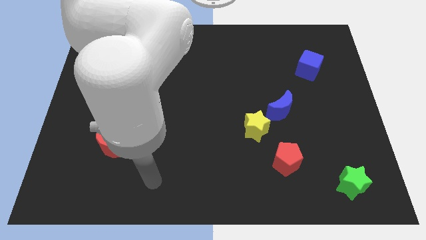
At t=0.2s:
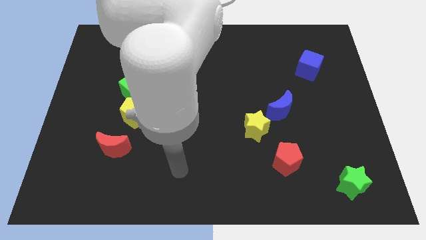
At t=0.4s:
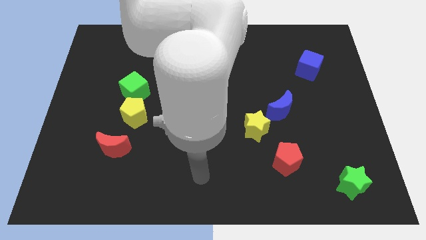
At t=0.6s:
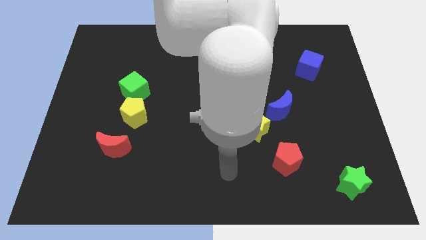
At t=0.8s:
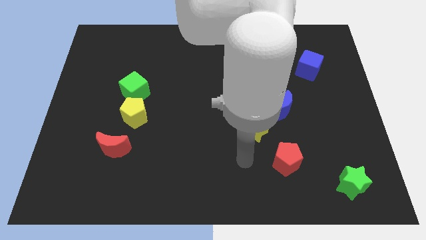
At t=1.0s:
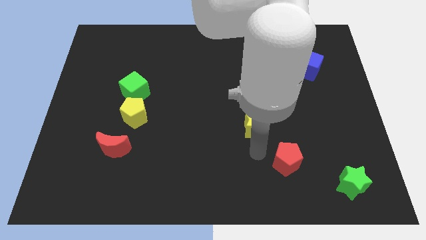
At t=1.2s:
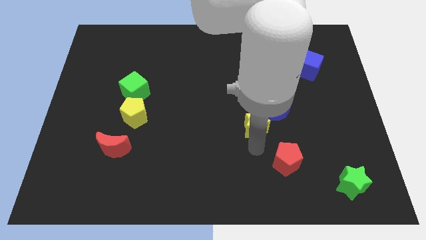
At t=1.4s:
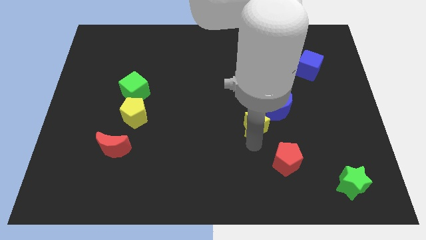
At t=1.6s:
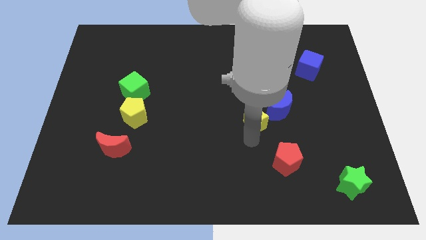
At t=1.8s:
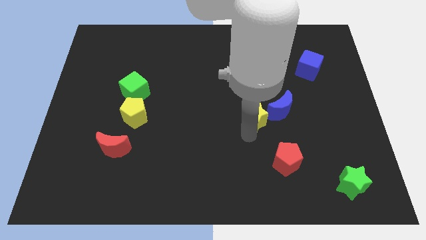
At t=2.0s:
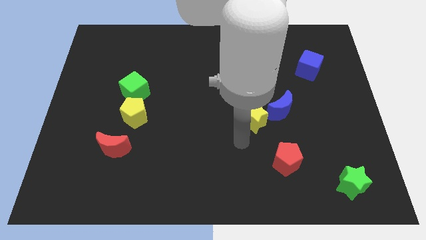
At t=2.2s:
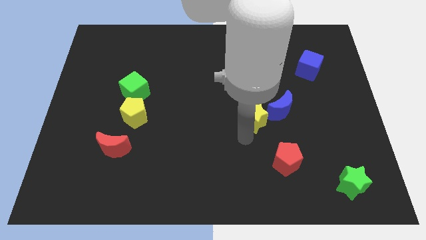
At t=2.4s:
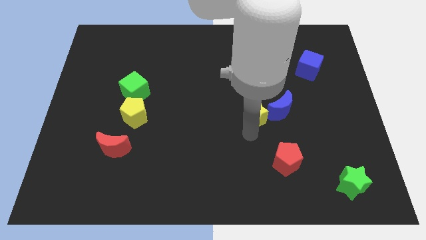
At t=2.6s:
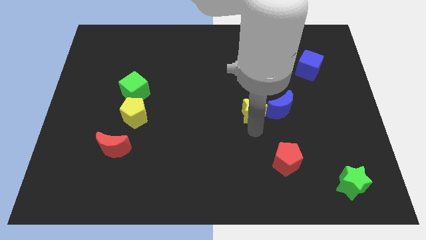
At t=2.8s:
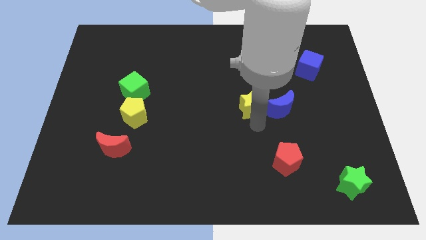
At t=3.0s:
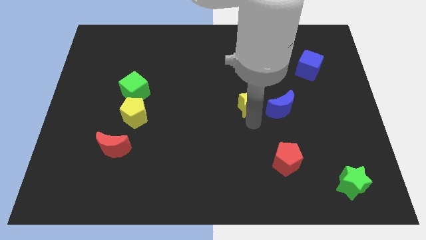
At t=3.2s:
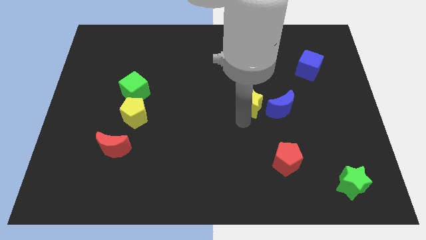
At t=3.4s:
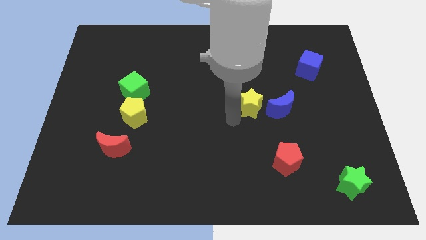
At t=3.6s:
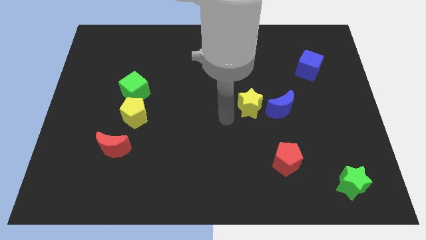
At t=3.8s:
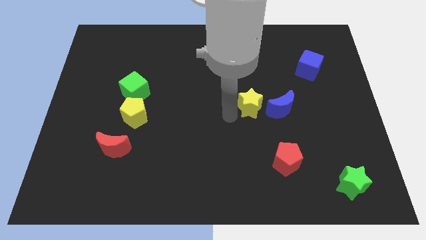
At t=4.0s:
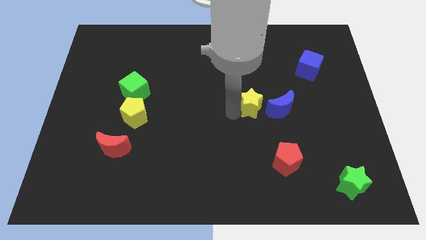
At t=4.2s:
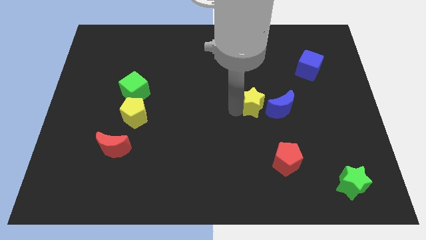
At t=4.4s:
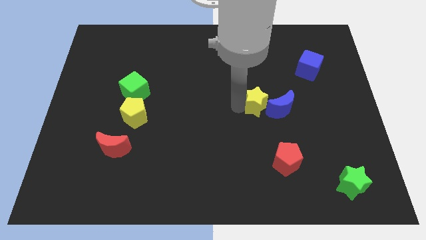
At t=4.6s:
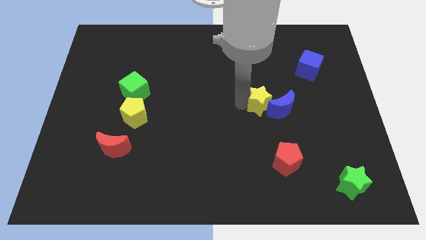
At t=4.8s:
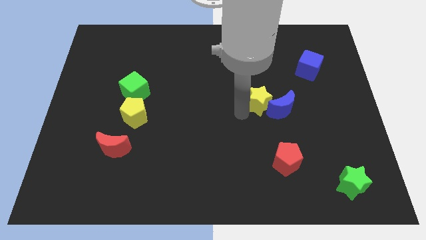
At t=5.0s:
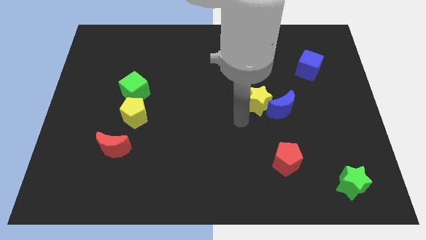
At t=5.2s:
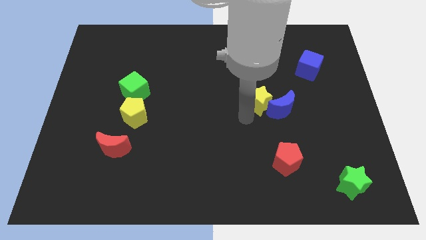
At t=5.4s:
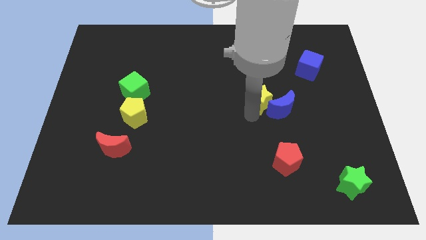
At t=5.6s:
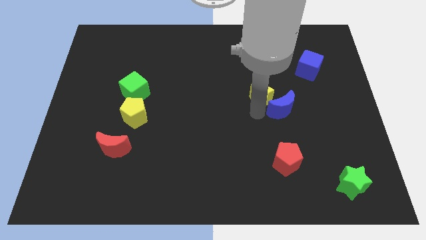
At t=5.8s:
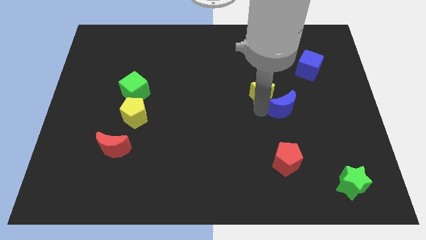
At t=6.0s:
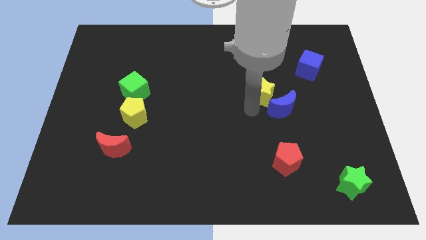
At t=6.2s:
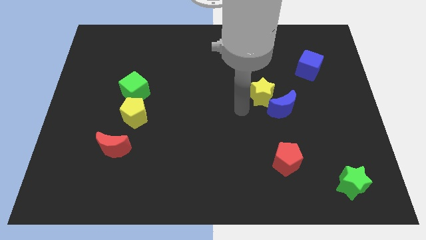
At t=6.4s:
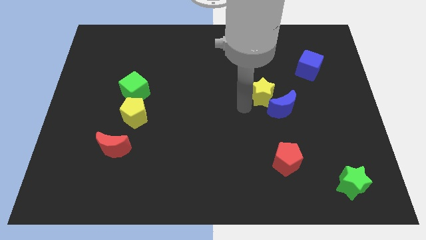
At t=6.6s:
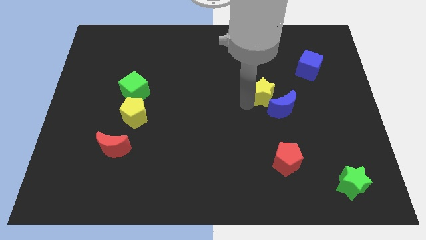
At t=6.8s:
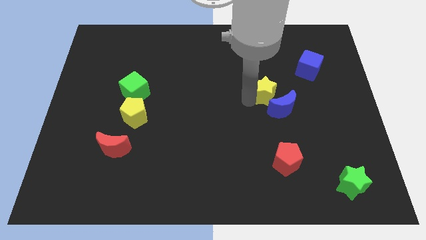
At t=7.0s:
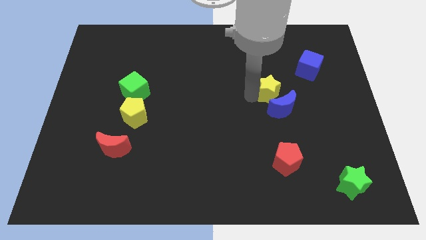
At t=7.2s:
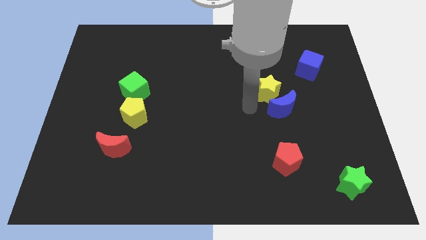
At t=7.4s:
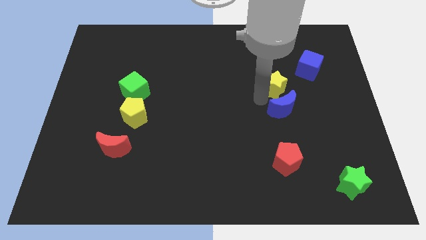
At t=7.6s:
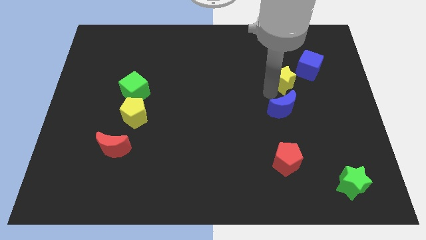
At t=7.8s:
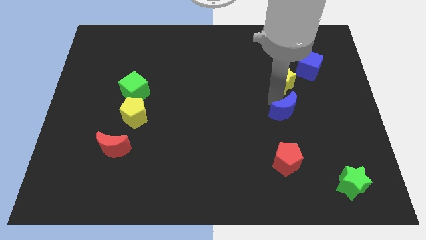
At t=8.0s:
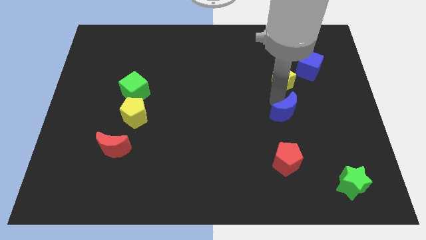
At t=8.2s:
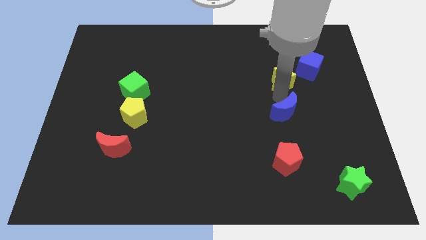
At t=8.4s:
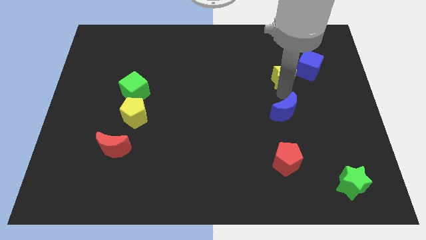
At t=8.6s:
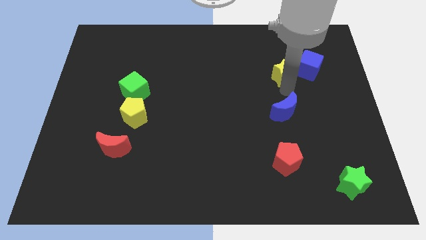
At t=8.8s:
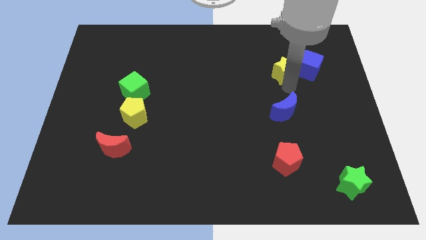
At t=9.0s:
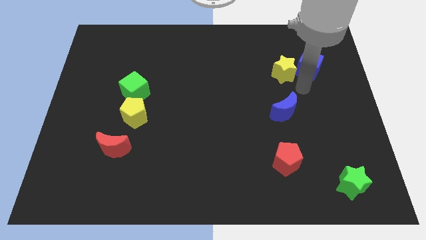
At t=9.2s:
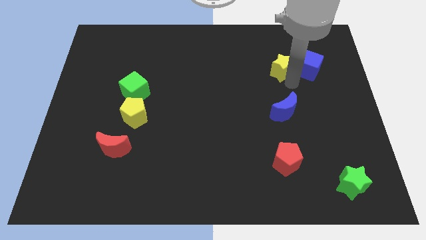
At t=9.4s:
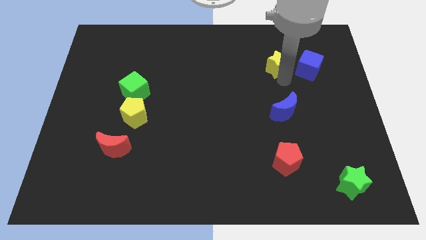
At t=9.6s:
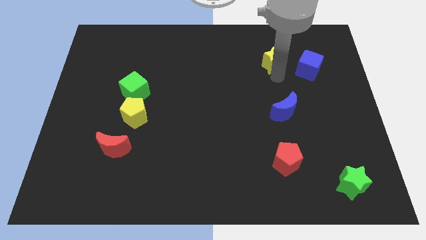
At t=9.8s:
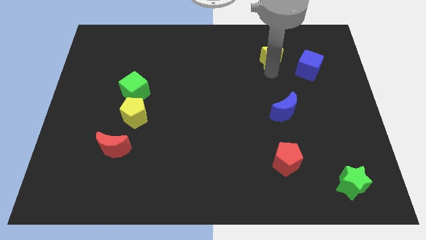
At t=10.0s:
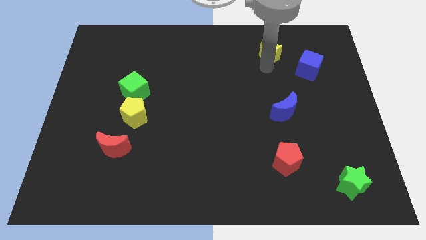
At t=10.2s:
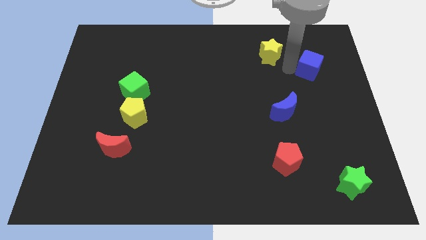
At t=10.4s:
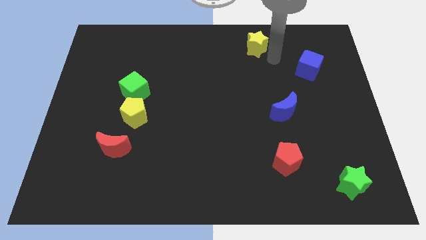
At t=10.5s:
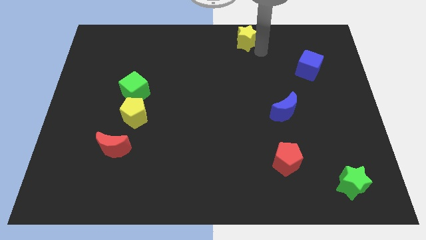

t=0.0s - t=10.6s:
push the yellow star to the towards your base

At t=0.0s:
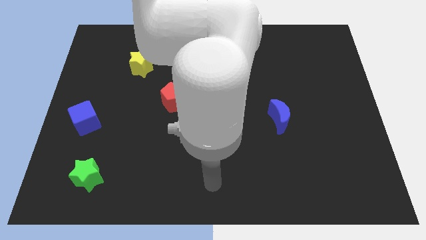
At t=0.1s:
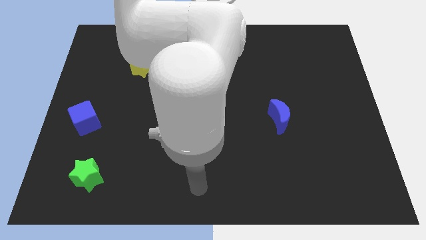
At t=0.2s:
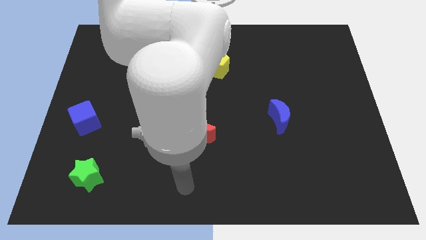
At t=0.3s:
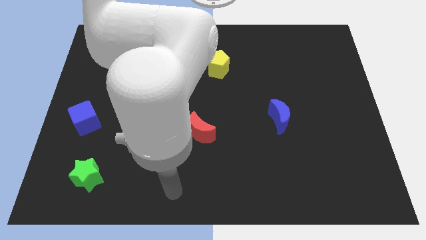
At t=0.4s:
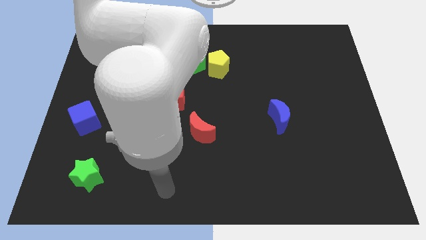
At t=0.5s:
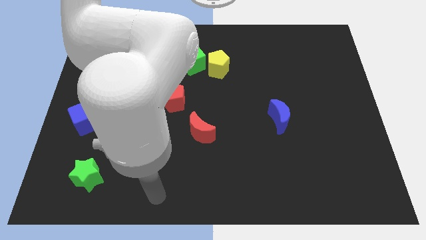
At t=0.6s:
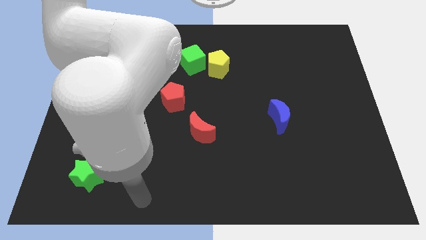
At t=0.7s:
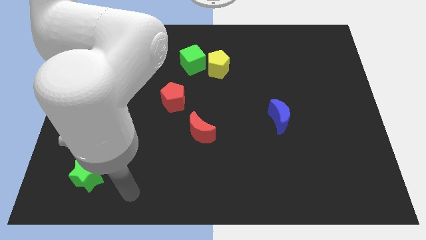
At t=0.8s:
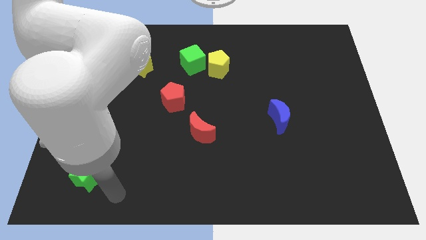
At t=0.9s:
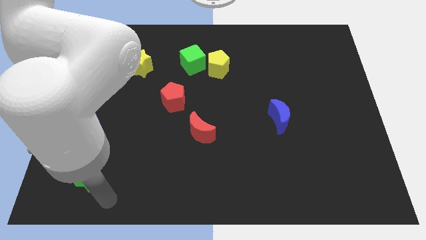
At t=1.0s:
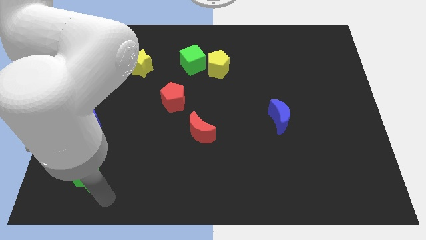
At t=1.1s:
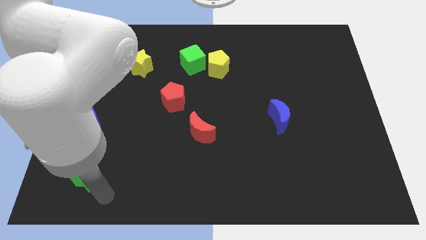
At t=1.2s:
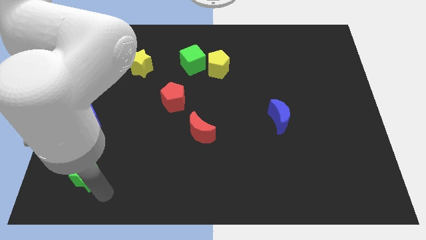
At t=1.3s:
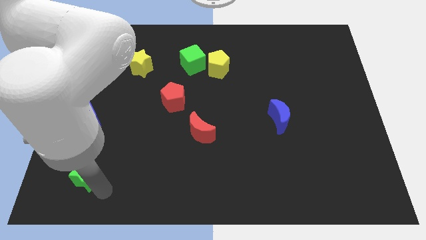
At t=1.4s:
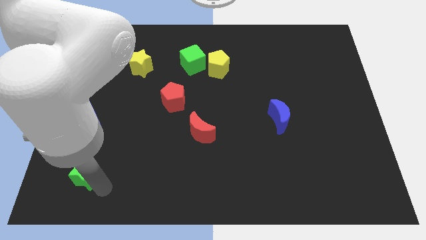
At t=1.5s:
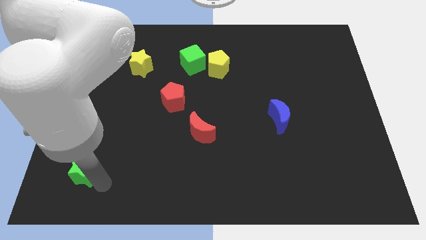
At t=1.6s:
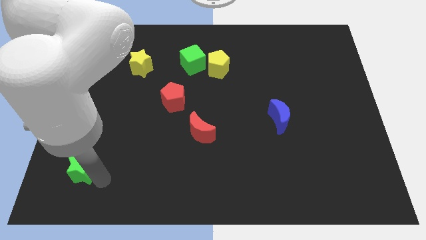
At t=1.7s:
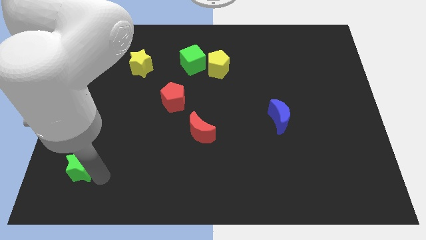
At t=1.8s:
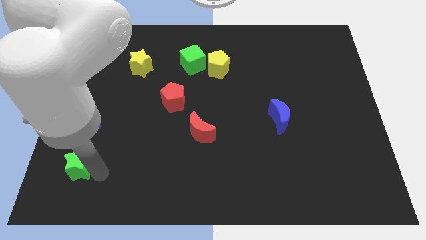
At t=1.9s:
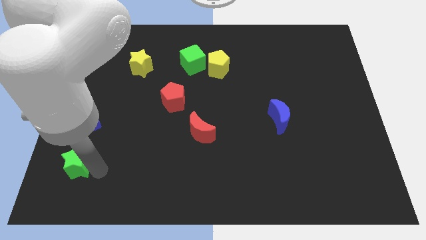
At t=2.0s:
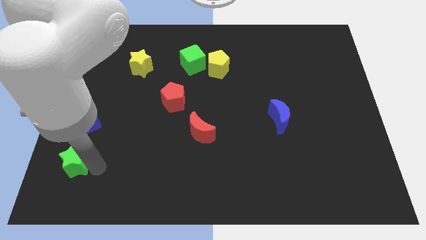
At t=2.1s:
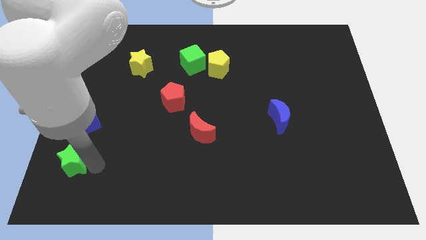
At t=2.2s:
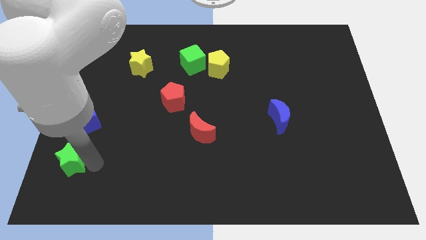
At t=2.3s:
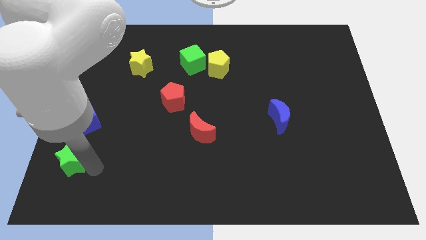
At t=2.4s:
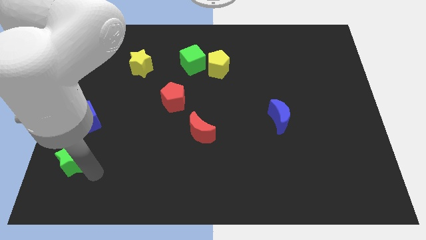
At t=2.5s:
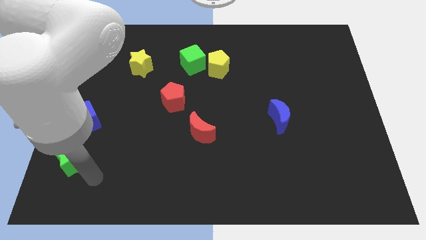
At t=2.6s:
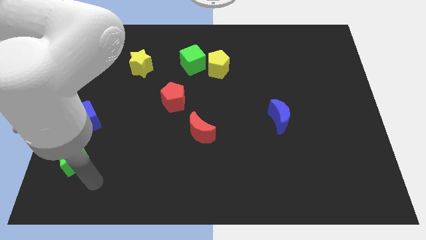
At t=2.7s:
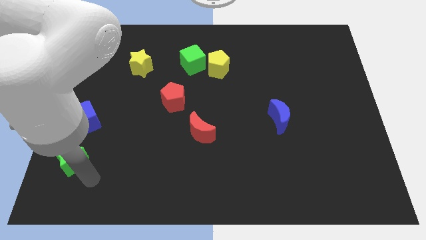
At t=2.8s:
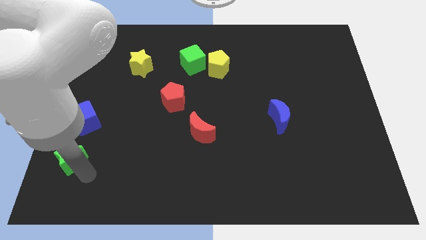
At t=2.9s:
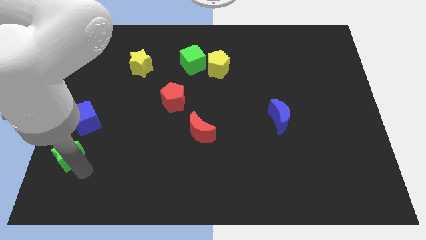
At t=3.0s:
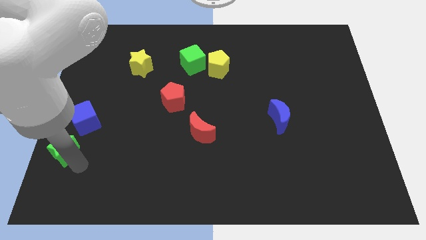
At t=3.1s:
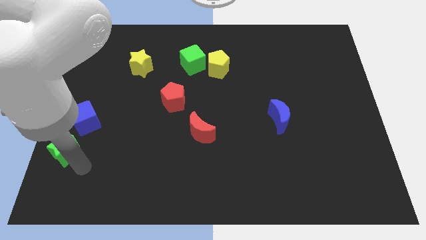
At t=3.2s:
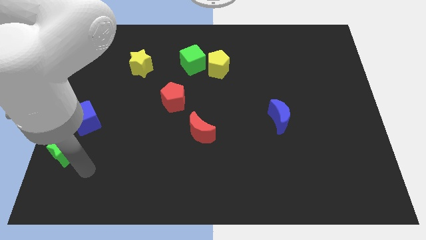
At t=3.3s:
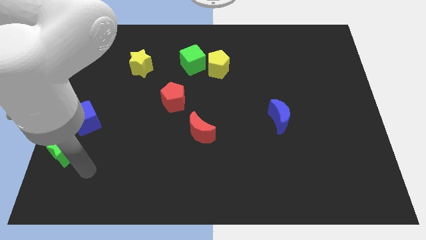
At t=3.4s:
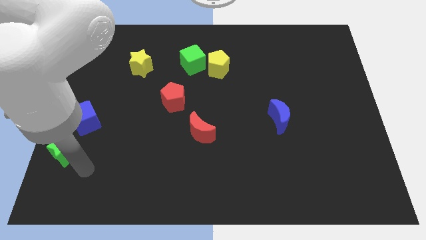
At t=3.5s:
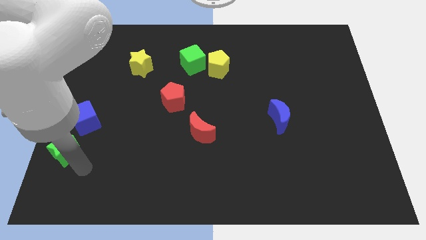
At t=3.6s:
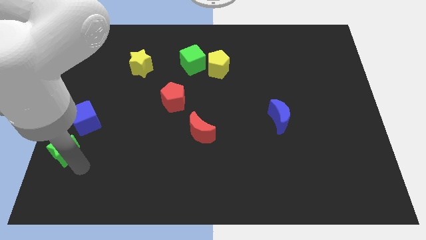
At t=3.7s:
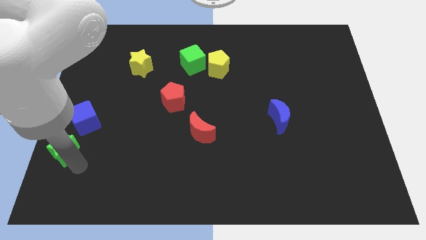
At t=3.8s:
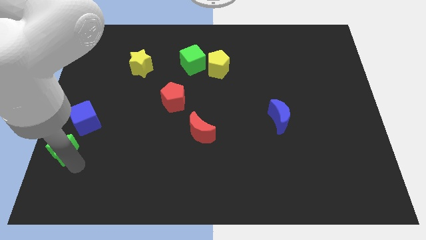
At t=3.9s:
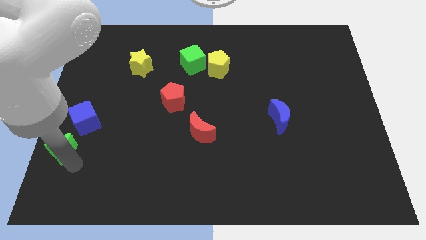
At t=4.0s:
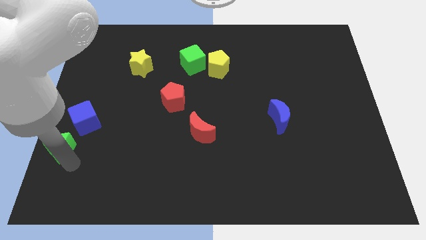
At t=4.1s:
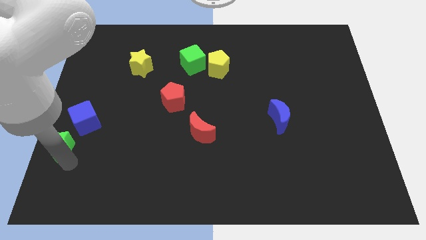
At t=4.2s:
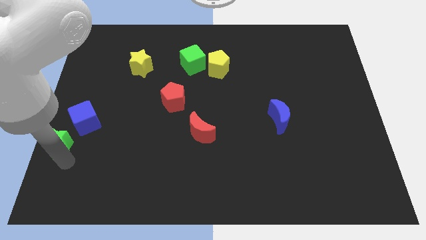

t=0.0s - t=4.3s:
push the green star to the left side of the board
